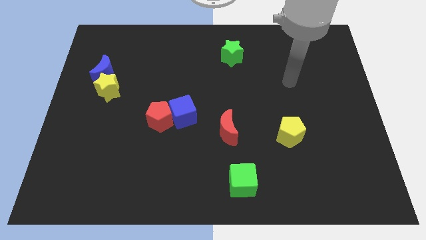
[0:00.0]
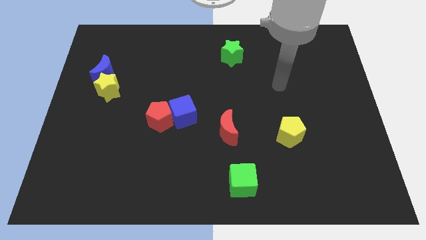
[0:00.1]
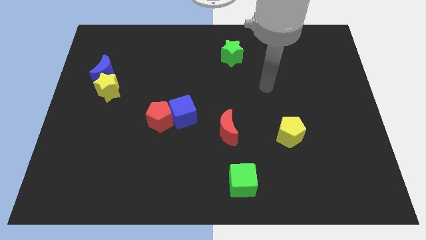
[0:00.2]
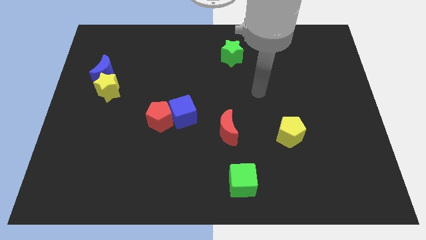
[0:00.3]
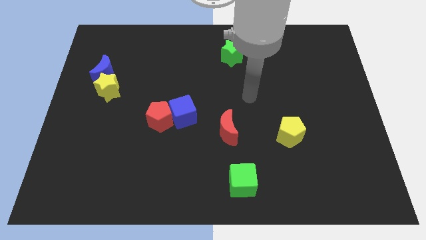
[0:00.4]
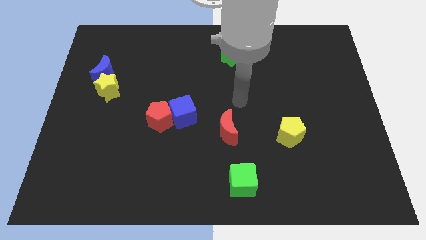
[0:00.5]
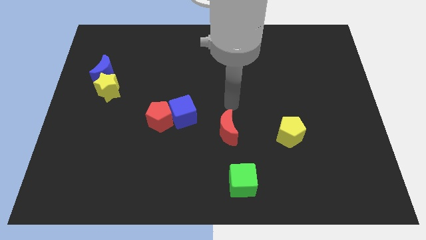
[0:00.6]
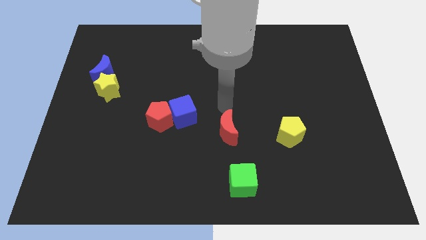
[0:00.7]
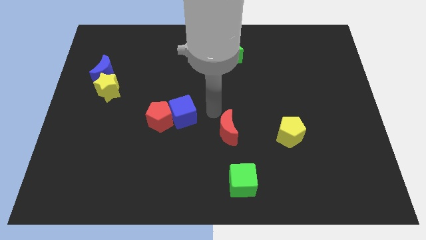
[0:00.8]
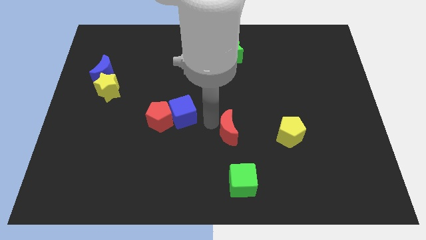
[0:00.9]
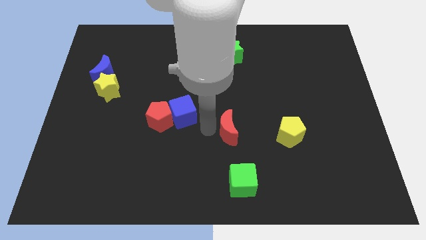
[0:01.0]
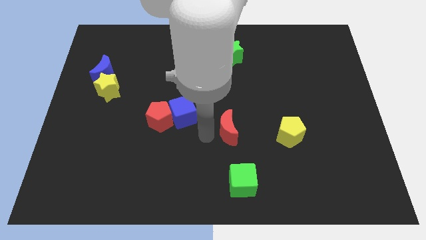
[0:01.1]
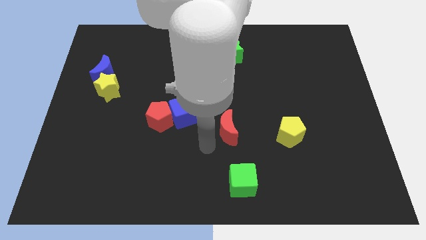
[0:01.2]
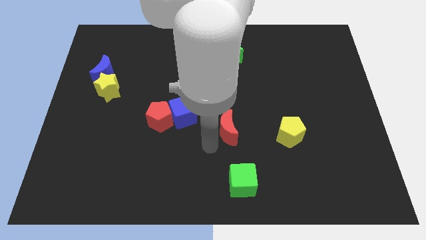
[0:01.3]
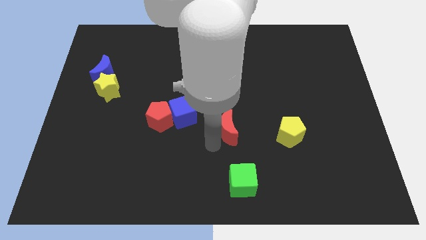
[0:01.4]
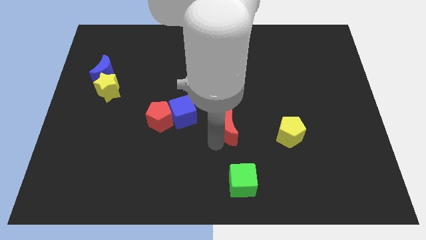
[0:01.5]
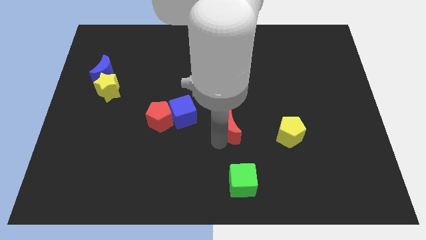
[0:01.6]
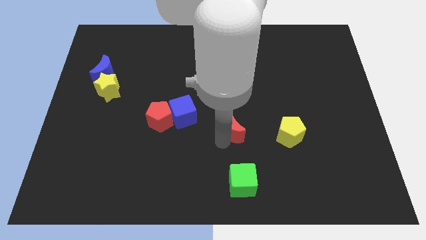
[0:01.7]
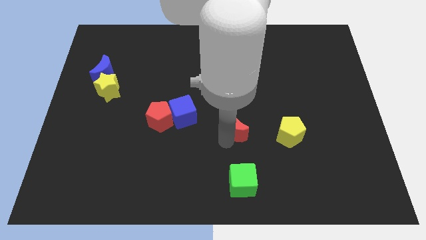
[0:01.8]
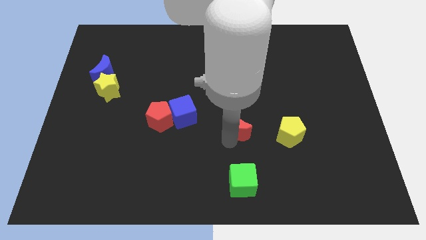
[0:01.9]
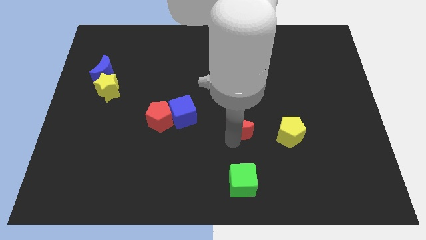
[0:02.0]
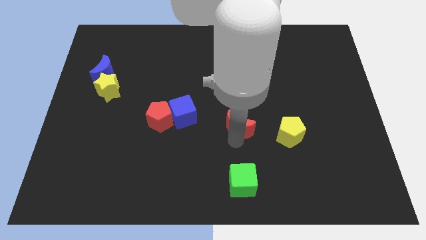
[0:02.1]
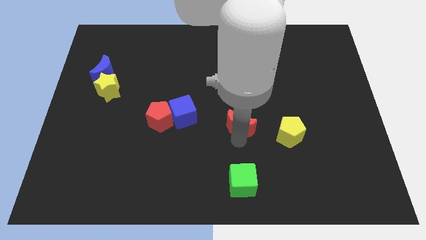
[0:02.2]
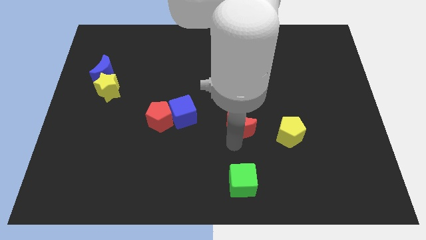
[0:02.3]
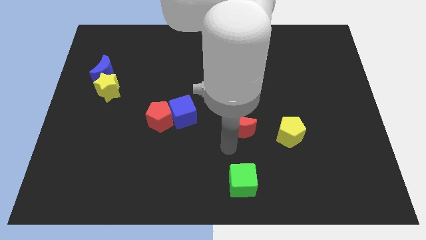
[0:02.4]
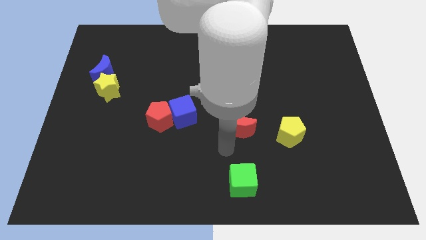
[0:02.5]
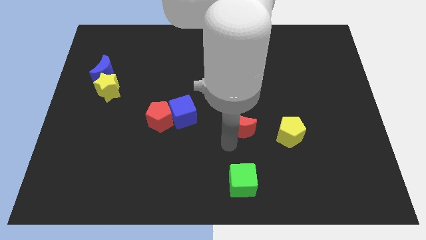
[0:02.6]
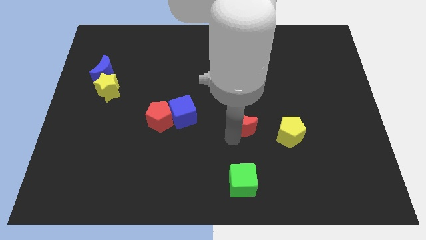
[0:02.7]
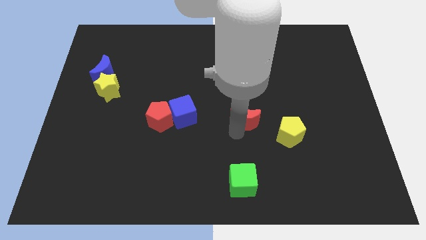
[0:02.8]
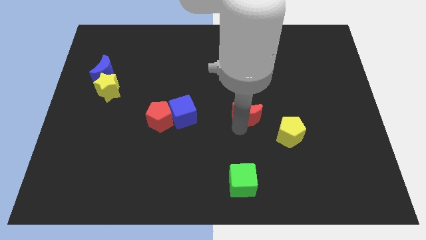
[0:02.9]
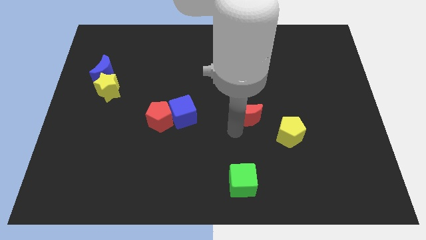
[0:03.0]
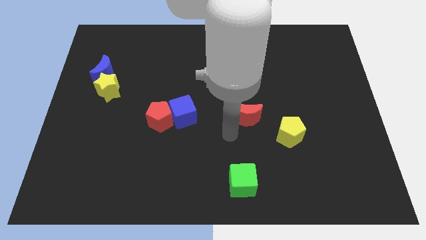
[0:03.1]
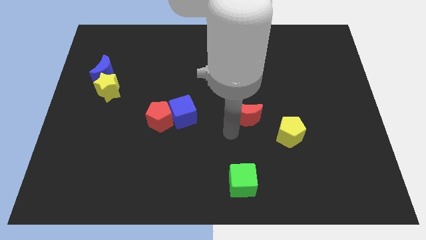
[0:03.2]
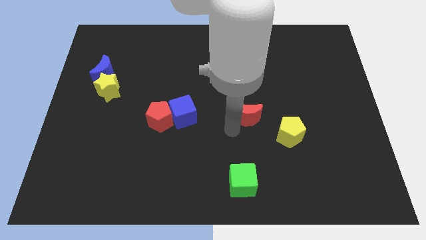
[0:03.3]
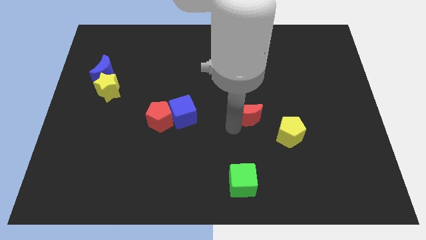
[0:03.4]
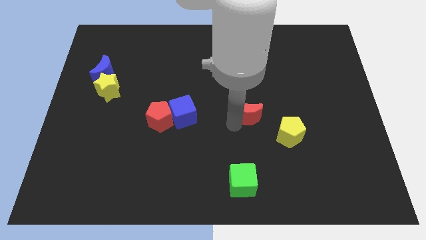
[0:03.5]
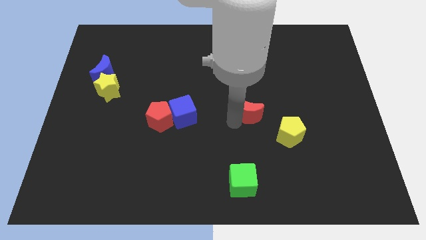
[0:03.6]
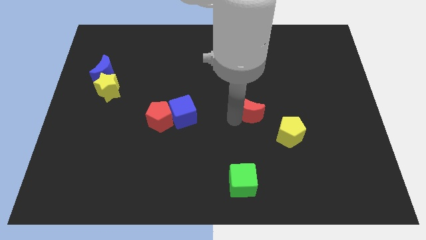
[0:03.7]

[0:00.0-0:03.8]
slightly push the red moon upwards and right

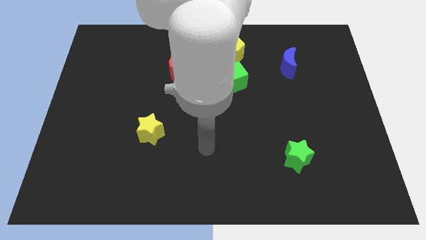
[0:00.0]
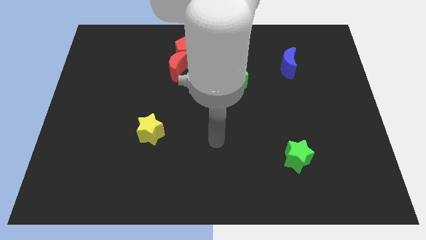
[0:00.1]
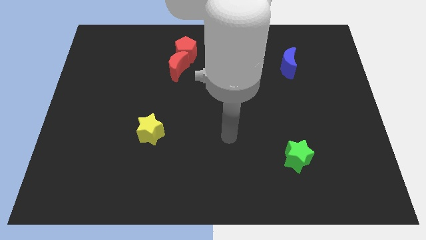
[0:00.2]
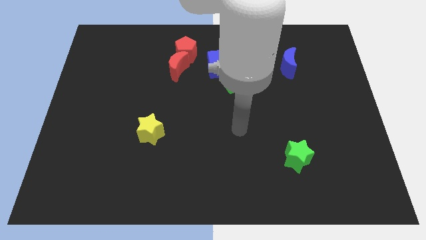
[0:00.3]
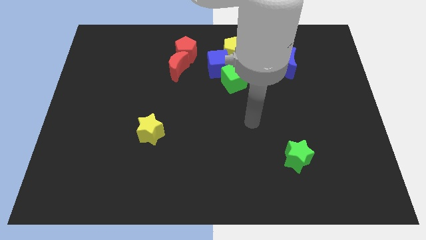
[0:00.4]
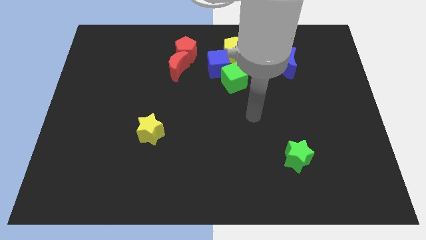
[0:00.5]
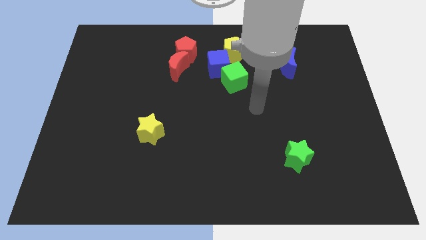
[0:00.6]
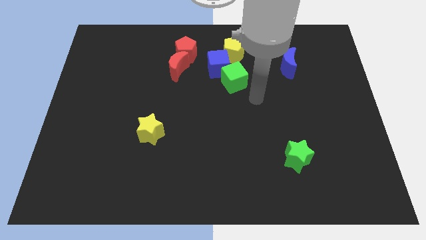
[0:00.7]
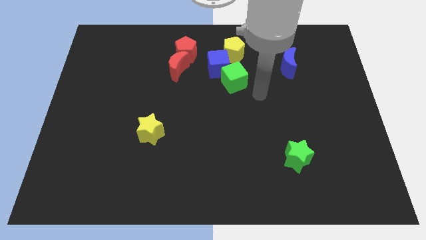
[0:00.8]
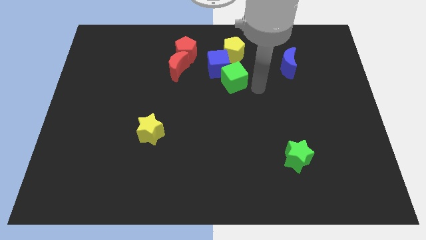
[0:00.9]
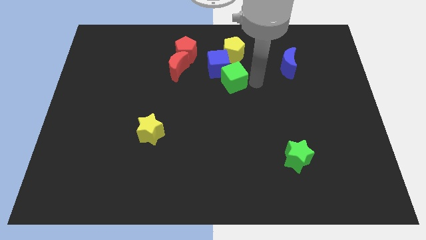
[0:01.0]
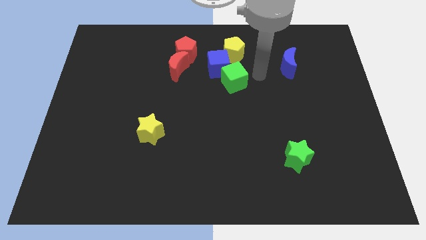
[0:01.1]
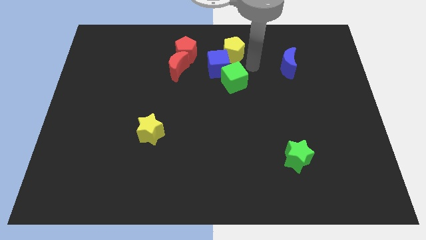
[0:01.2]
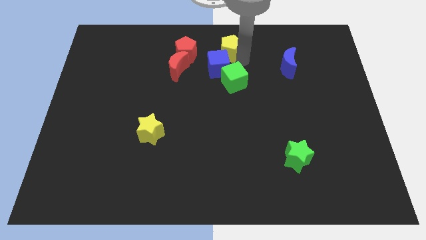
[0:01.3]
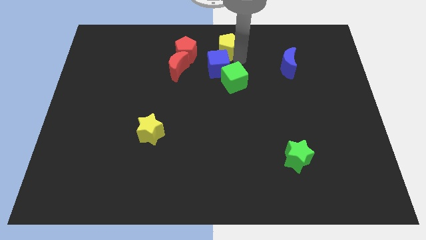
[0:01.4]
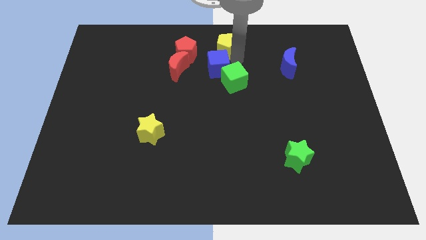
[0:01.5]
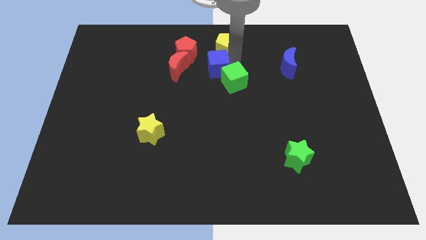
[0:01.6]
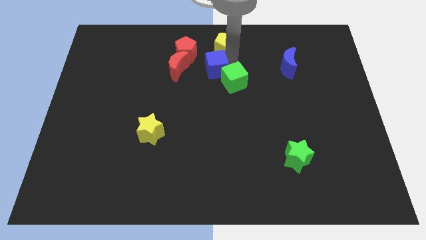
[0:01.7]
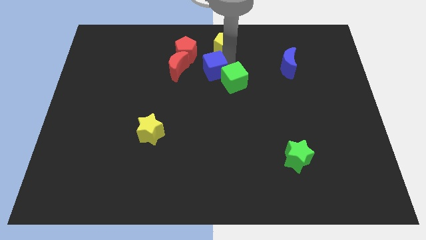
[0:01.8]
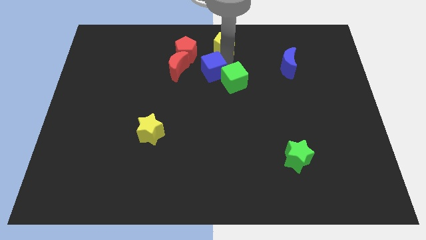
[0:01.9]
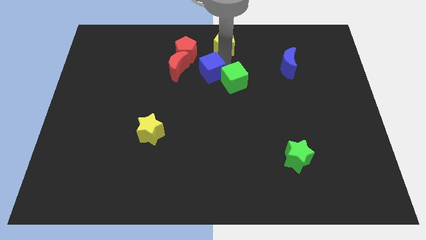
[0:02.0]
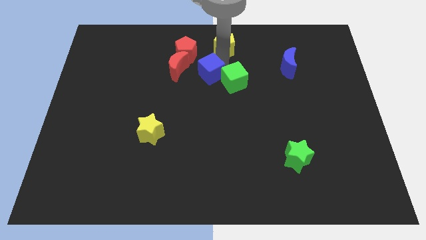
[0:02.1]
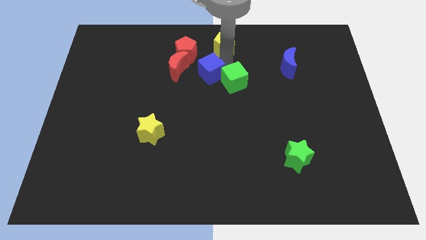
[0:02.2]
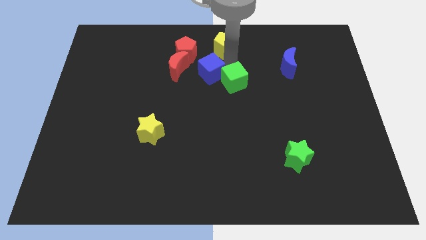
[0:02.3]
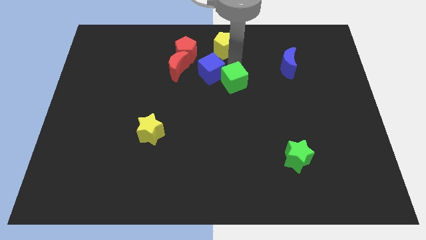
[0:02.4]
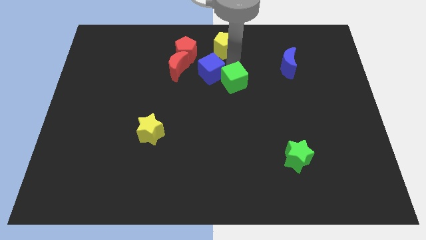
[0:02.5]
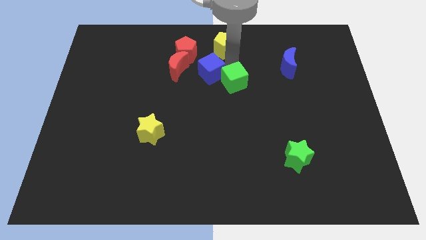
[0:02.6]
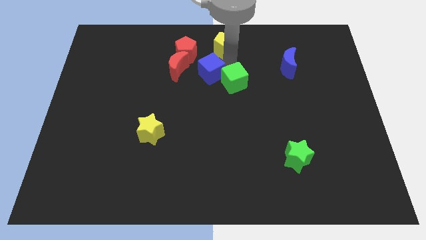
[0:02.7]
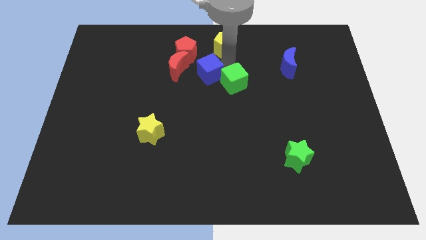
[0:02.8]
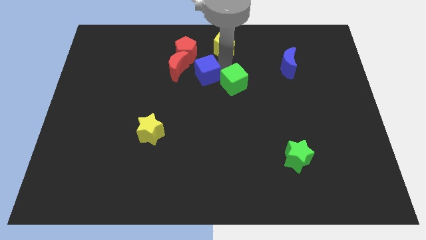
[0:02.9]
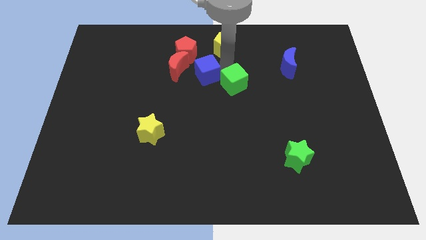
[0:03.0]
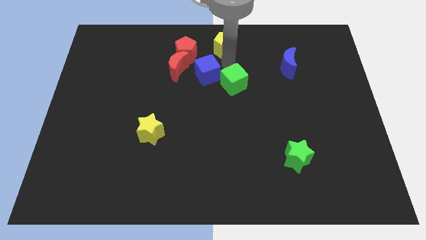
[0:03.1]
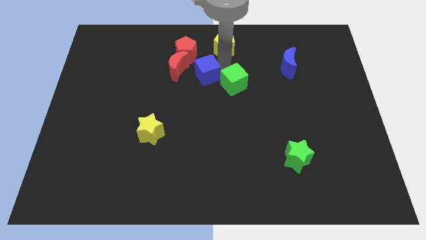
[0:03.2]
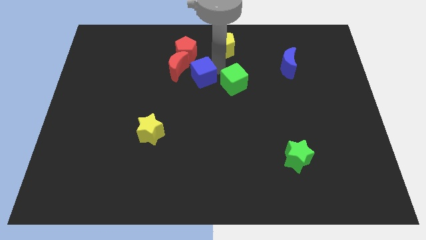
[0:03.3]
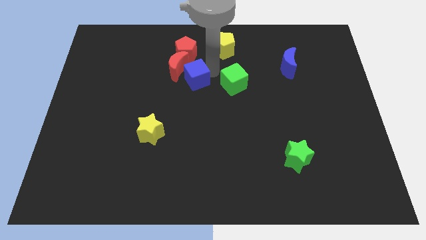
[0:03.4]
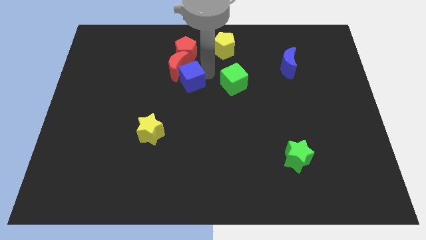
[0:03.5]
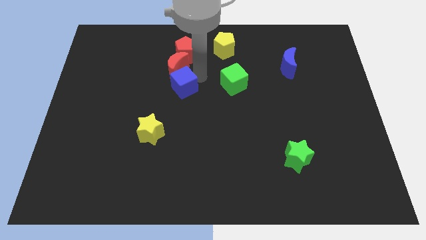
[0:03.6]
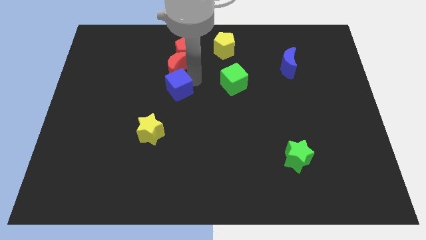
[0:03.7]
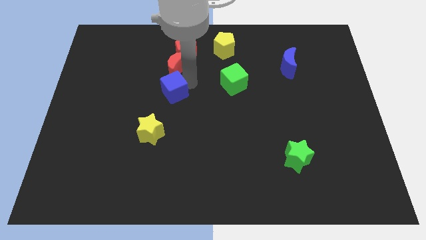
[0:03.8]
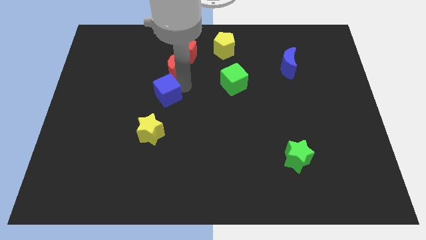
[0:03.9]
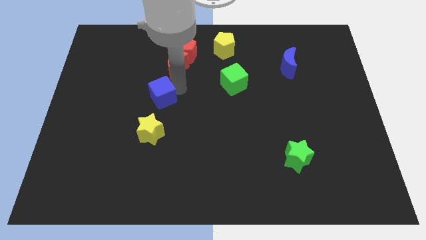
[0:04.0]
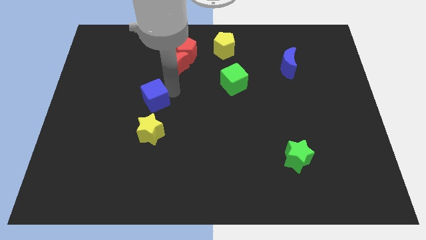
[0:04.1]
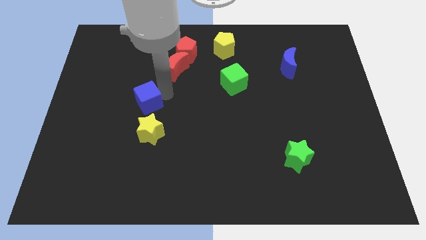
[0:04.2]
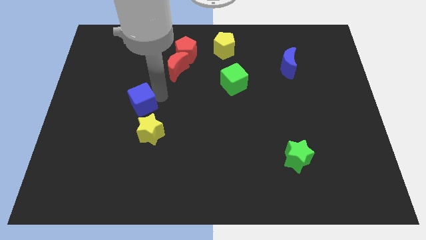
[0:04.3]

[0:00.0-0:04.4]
move the blue cube down and to the left

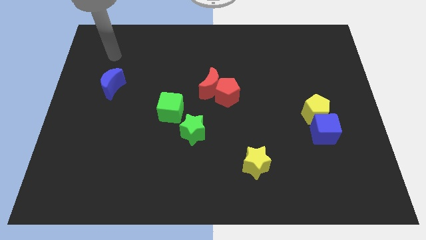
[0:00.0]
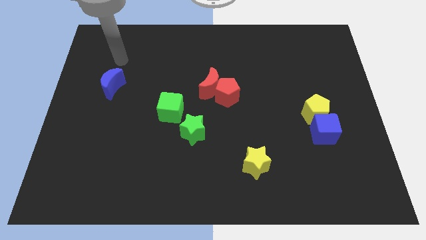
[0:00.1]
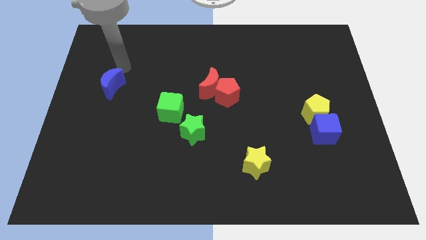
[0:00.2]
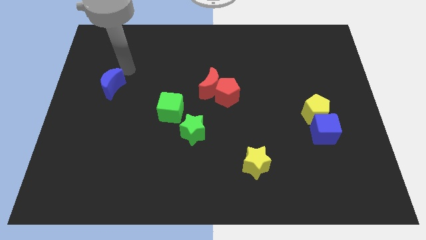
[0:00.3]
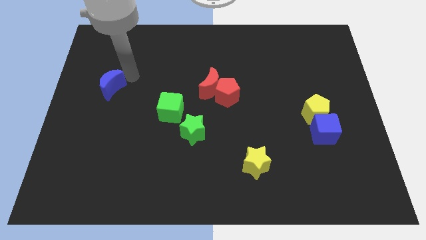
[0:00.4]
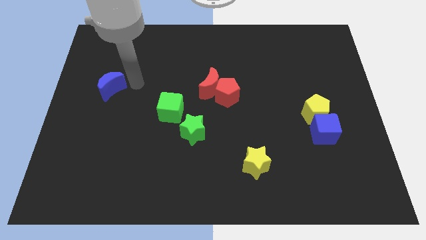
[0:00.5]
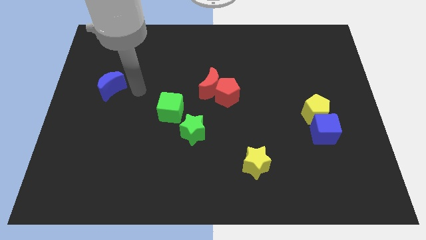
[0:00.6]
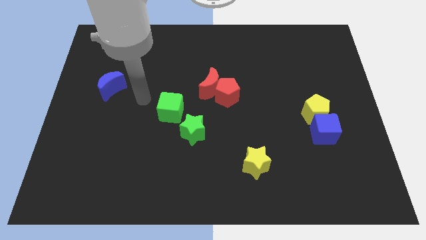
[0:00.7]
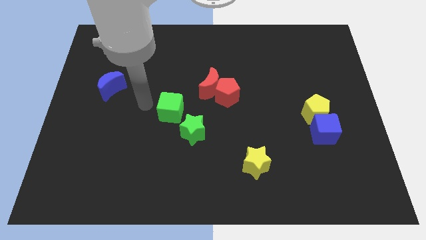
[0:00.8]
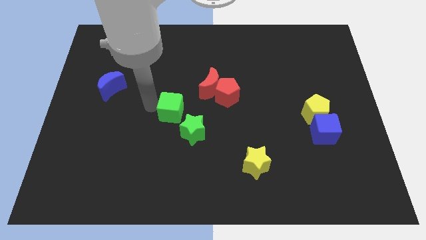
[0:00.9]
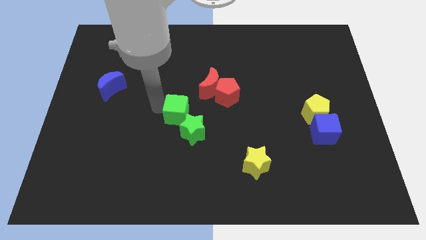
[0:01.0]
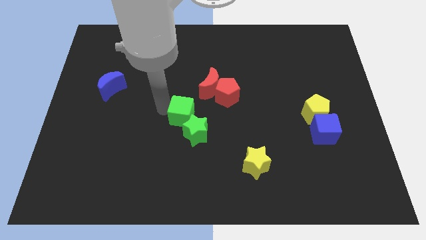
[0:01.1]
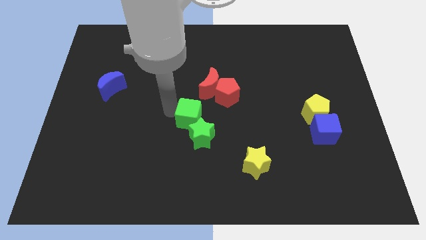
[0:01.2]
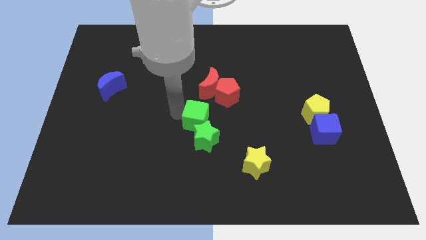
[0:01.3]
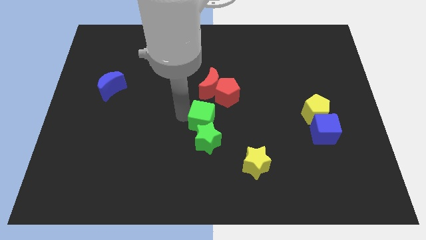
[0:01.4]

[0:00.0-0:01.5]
move the green cube a little bit downwards and right diagonally
